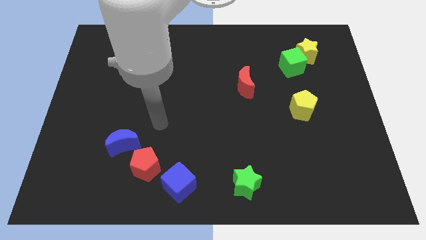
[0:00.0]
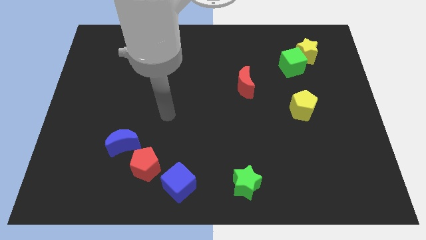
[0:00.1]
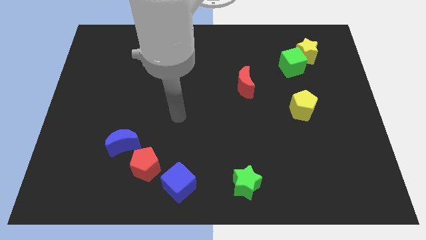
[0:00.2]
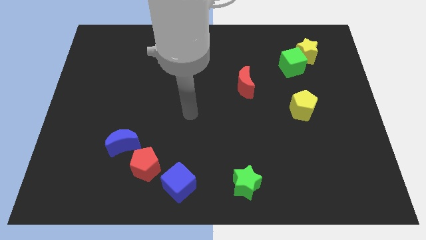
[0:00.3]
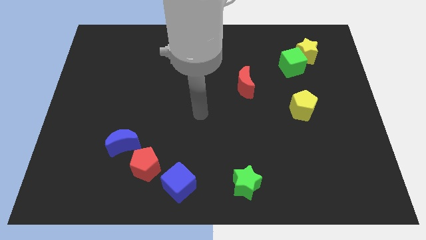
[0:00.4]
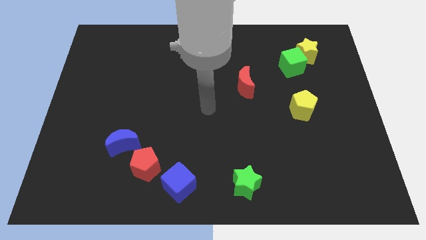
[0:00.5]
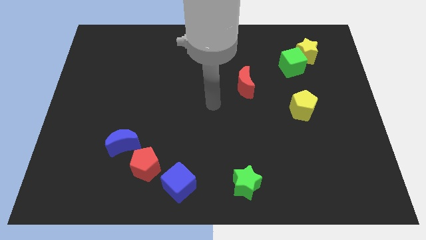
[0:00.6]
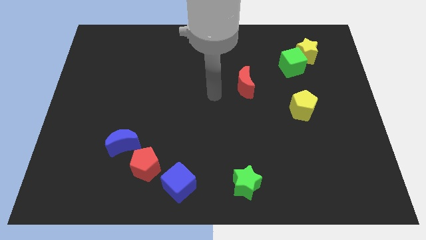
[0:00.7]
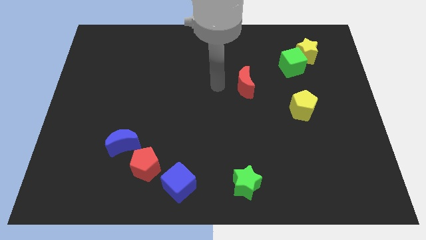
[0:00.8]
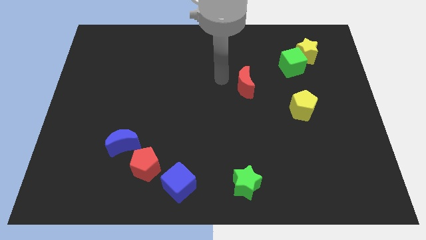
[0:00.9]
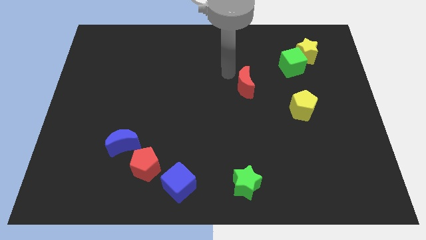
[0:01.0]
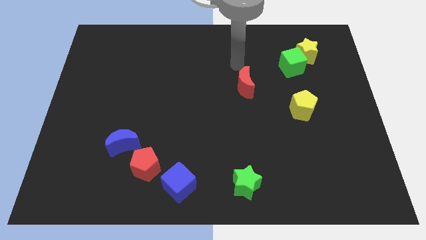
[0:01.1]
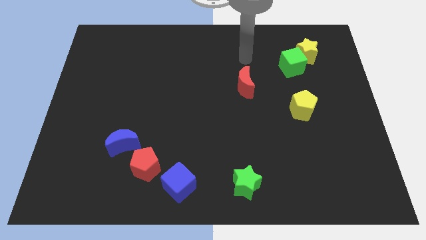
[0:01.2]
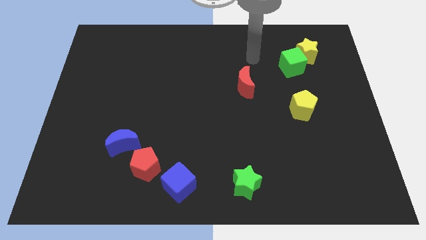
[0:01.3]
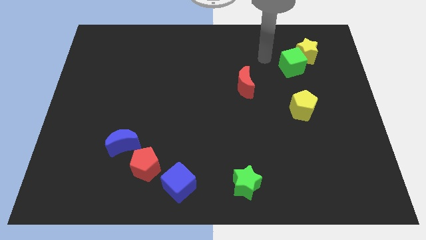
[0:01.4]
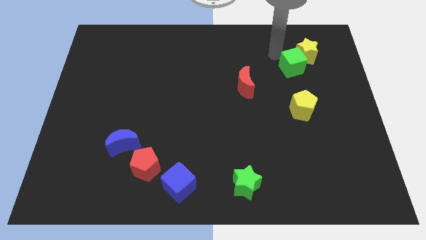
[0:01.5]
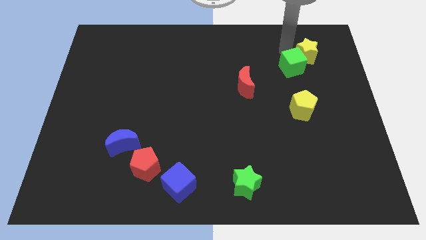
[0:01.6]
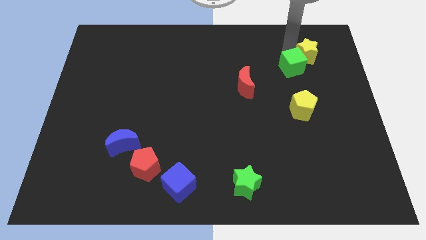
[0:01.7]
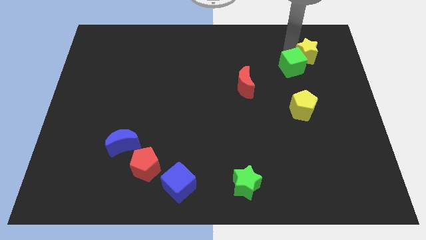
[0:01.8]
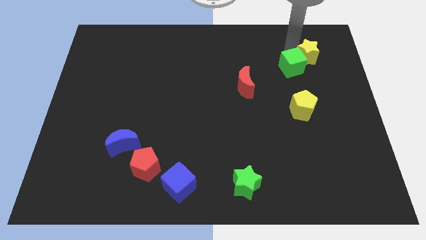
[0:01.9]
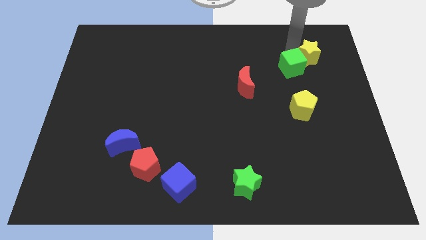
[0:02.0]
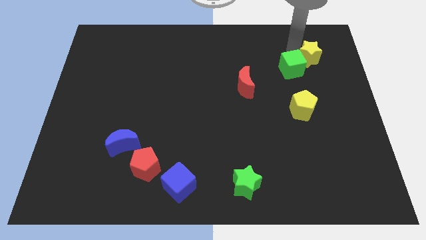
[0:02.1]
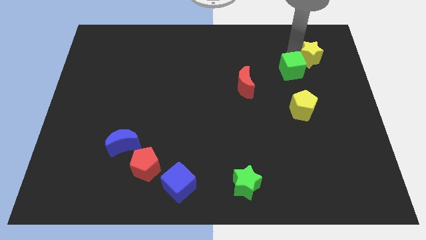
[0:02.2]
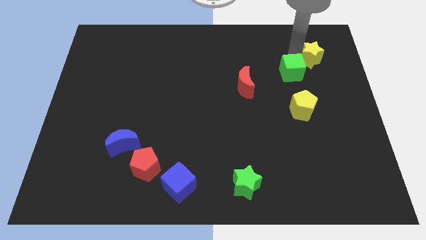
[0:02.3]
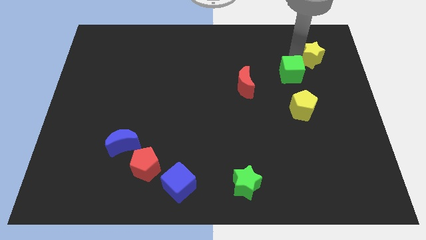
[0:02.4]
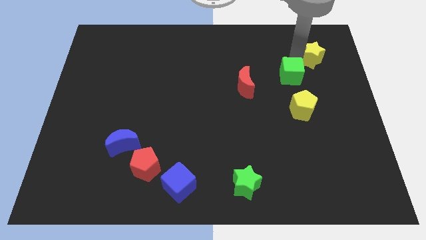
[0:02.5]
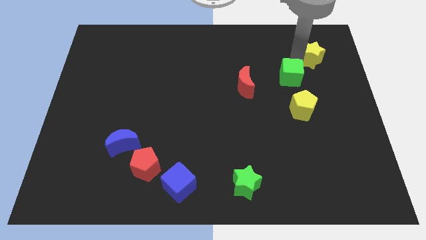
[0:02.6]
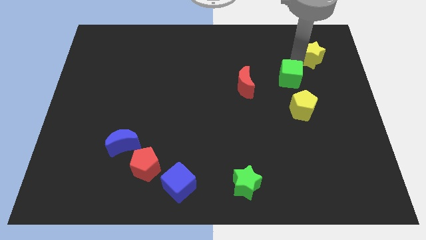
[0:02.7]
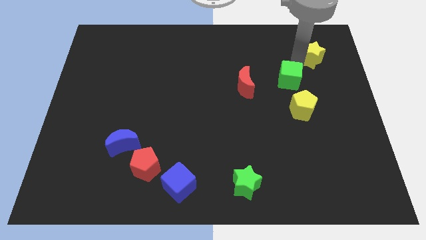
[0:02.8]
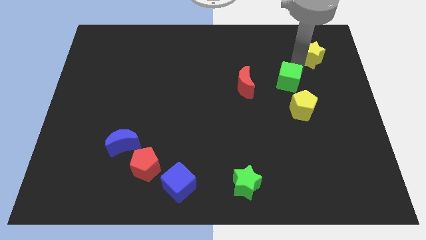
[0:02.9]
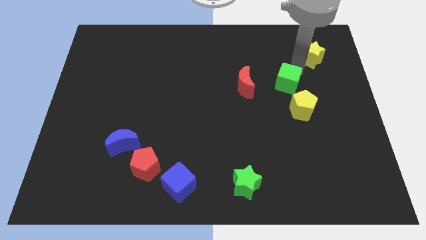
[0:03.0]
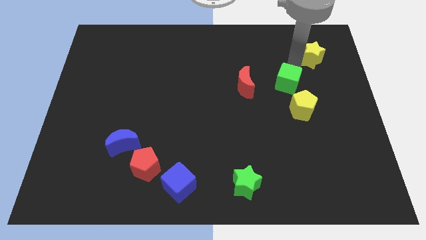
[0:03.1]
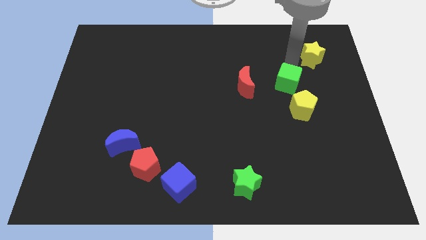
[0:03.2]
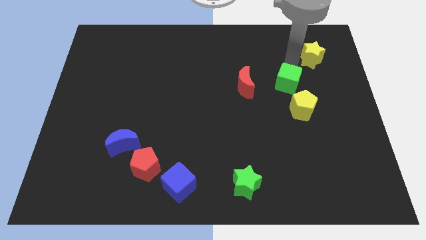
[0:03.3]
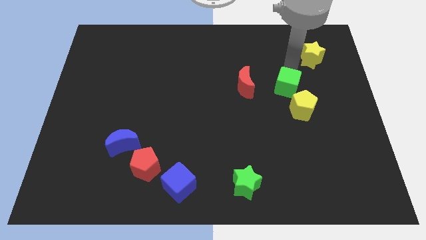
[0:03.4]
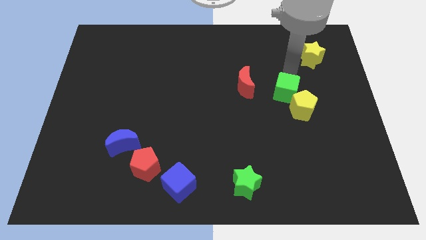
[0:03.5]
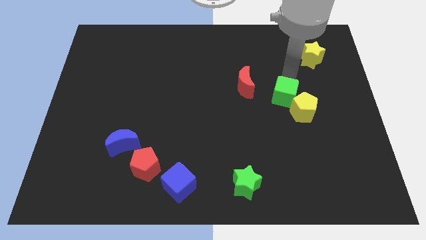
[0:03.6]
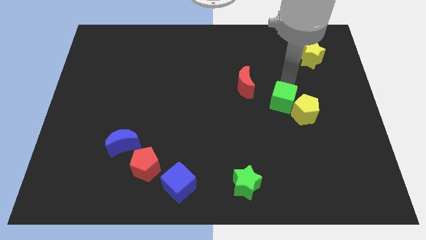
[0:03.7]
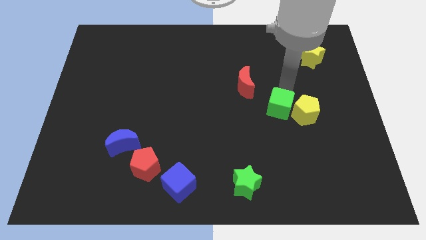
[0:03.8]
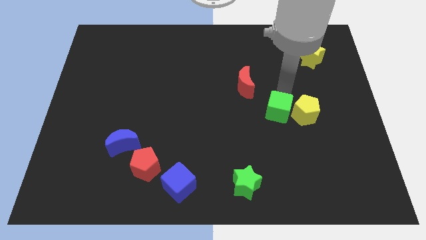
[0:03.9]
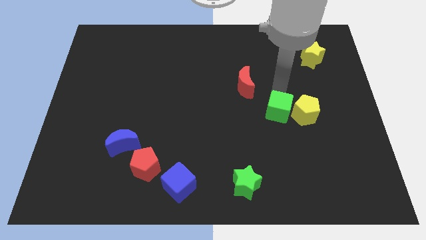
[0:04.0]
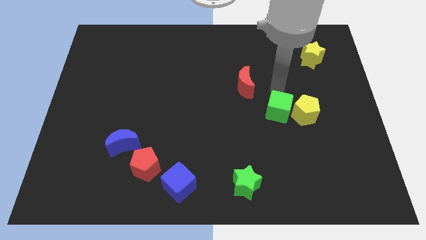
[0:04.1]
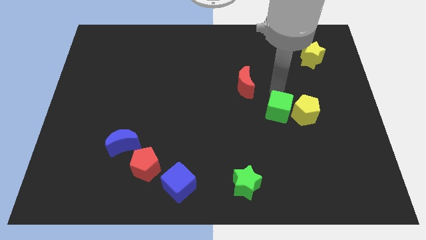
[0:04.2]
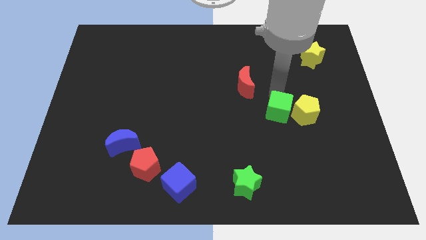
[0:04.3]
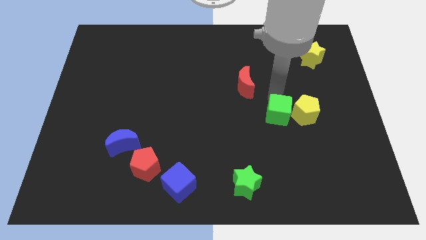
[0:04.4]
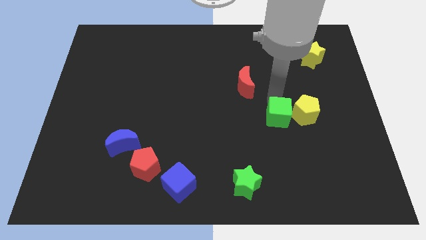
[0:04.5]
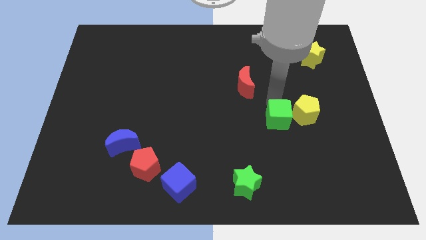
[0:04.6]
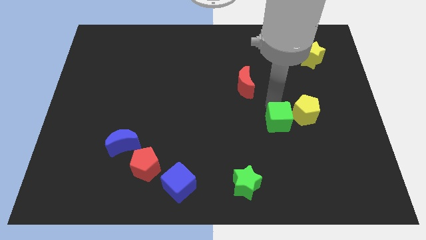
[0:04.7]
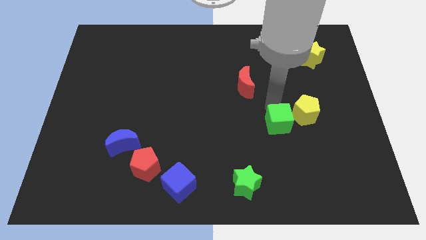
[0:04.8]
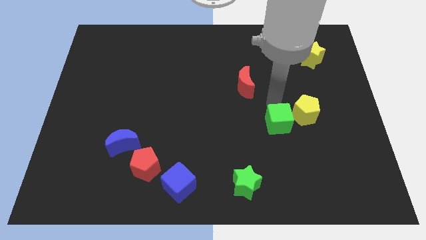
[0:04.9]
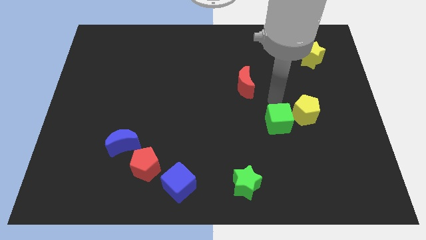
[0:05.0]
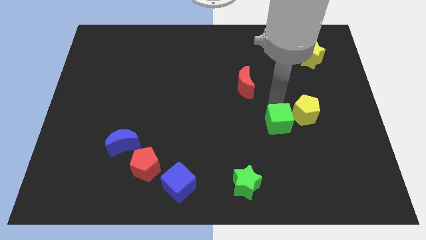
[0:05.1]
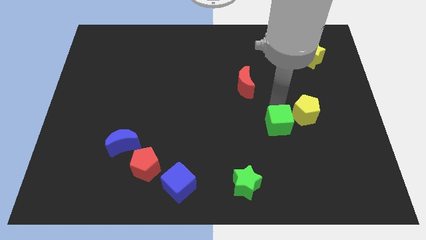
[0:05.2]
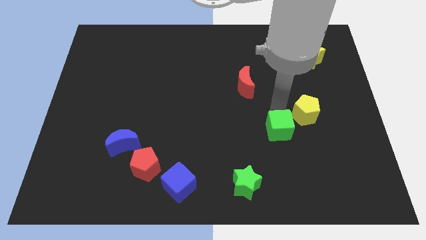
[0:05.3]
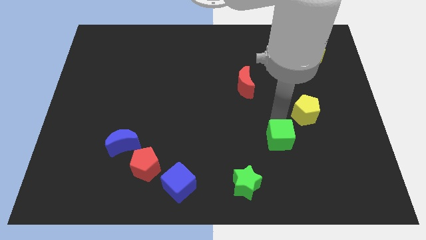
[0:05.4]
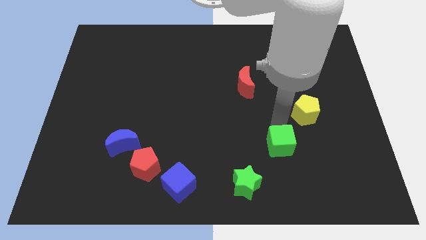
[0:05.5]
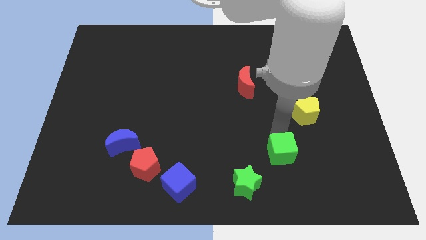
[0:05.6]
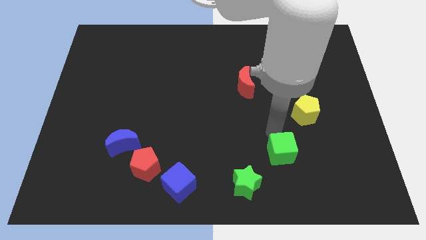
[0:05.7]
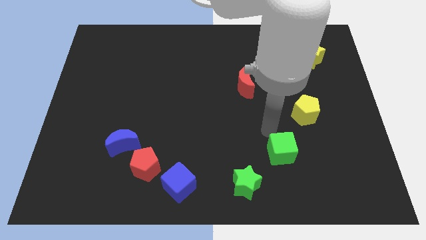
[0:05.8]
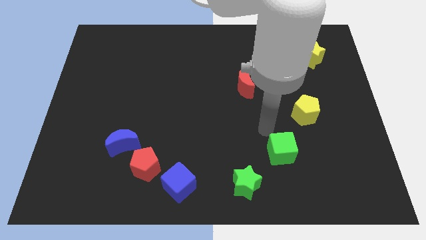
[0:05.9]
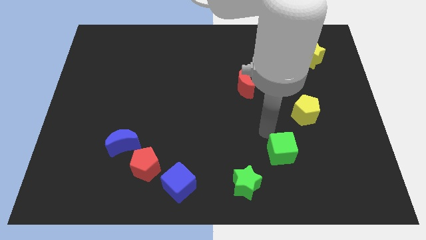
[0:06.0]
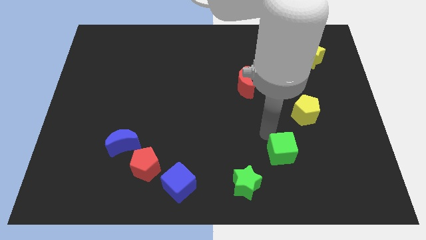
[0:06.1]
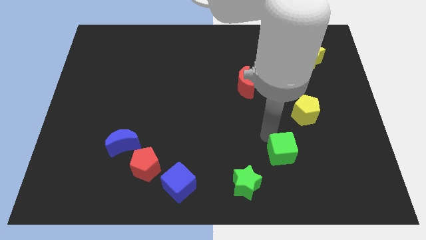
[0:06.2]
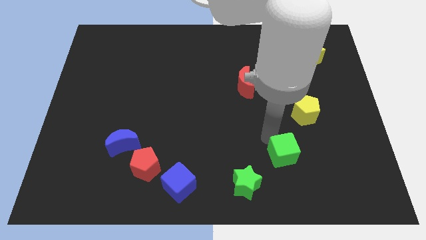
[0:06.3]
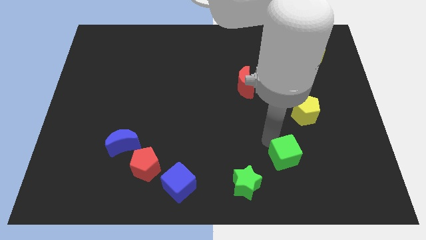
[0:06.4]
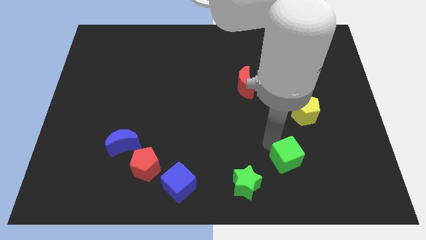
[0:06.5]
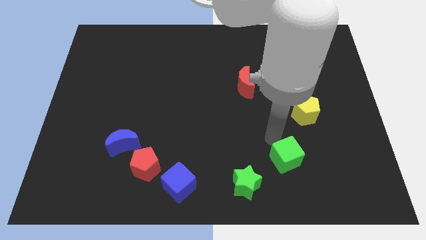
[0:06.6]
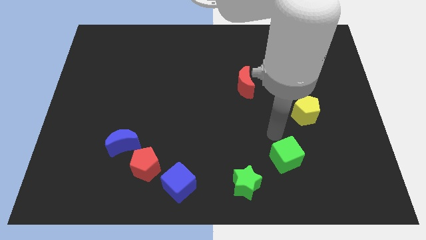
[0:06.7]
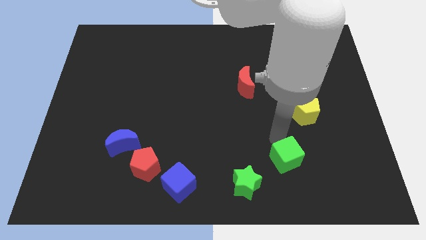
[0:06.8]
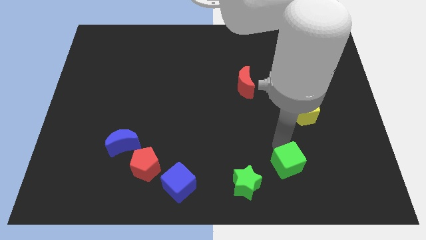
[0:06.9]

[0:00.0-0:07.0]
slide the green cube just right of the green star
